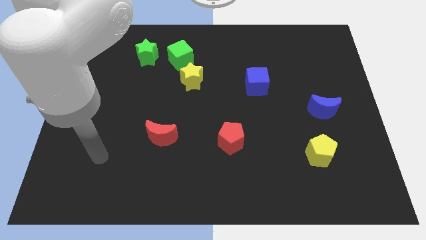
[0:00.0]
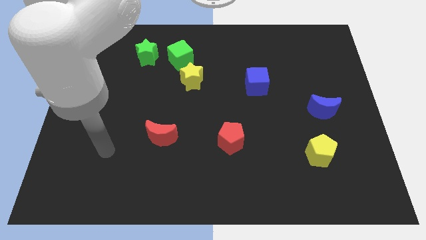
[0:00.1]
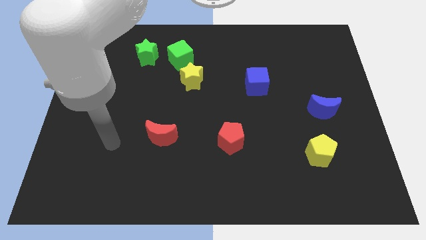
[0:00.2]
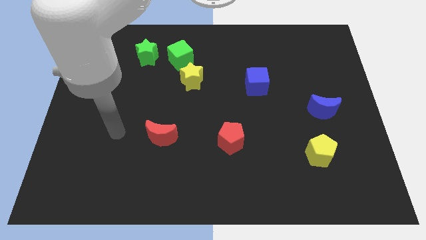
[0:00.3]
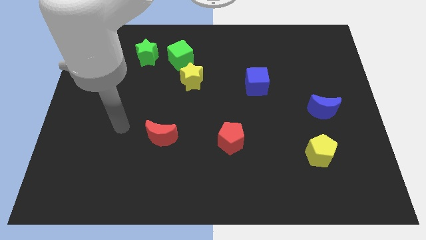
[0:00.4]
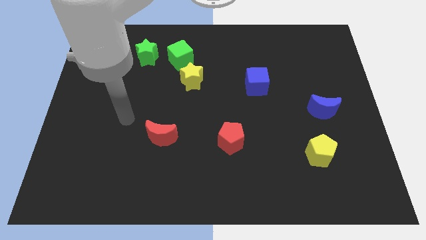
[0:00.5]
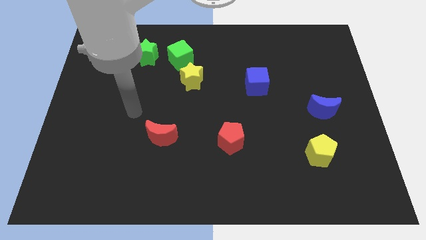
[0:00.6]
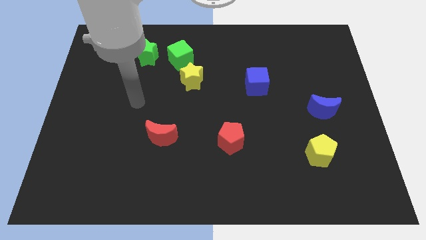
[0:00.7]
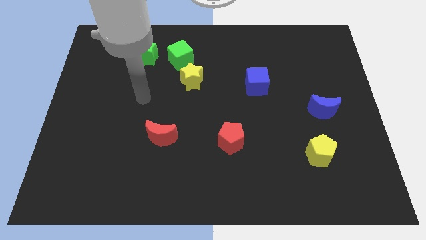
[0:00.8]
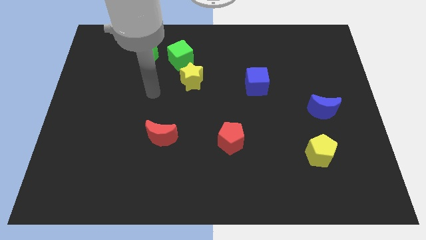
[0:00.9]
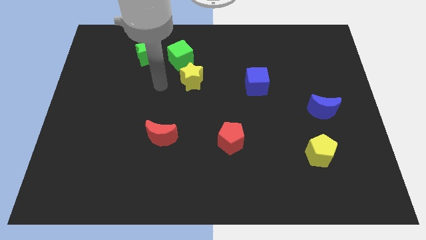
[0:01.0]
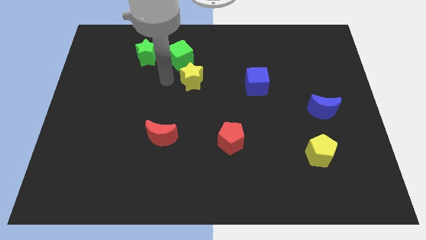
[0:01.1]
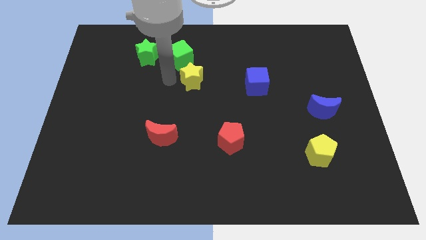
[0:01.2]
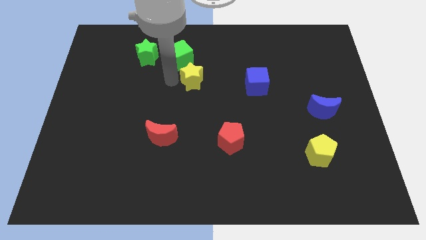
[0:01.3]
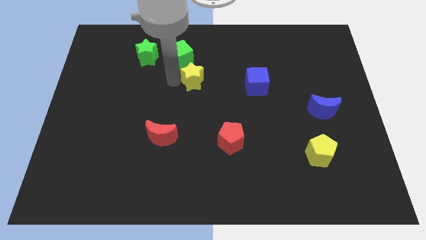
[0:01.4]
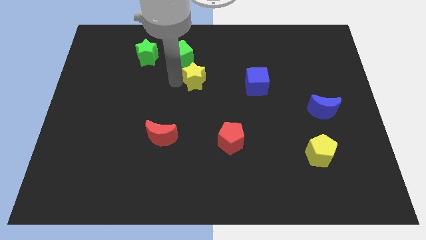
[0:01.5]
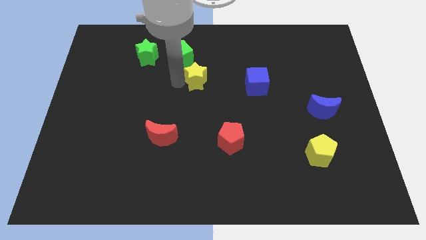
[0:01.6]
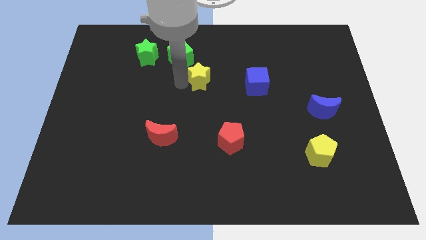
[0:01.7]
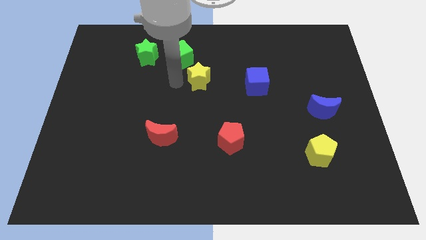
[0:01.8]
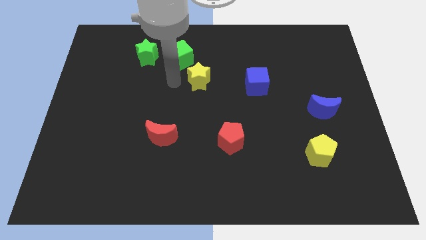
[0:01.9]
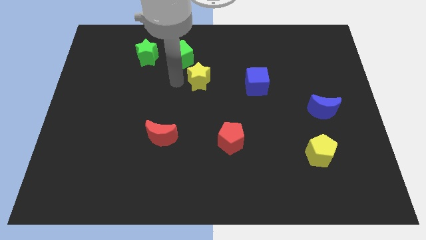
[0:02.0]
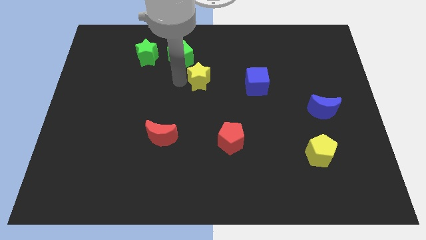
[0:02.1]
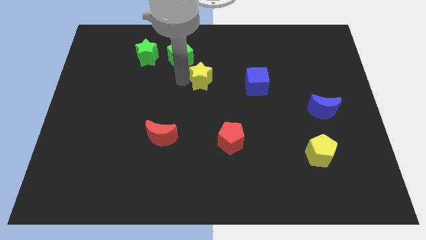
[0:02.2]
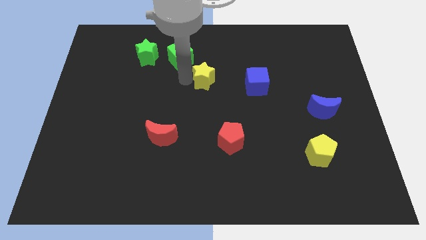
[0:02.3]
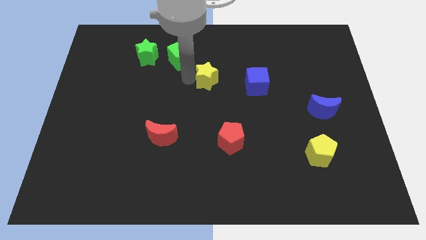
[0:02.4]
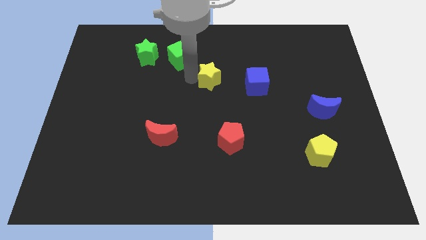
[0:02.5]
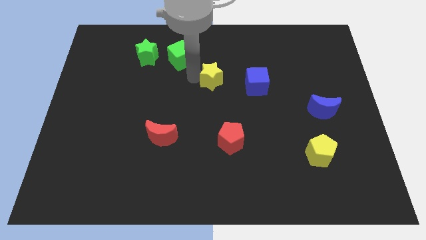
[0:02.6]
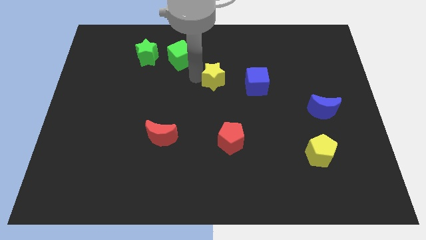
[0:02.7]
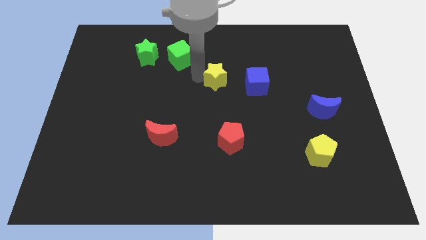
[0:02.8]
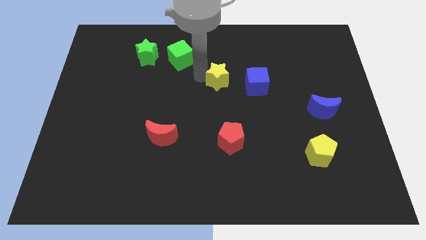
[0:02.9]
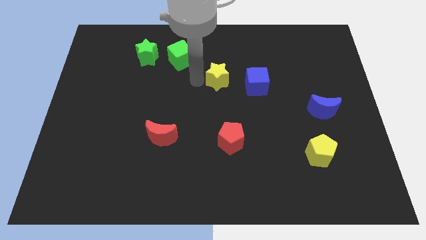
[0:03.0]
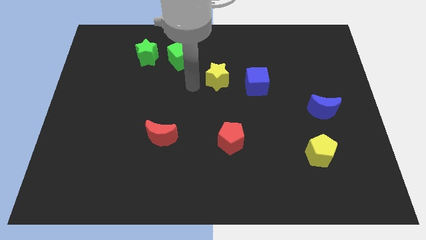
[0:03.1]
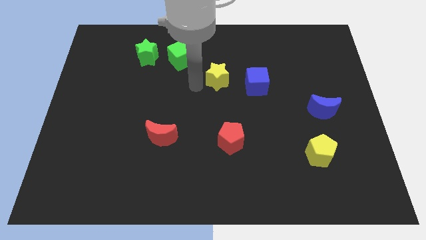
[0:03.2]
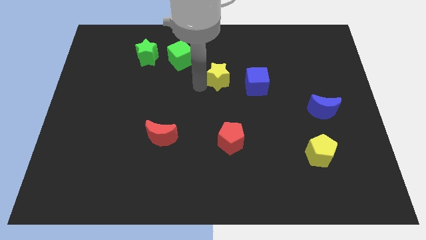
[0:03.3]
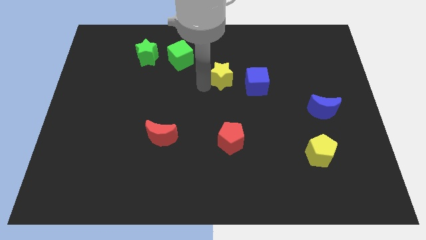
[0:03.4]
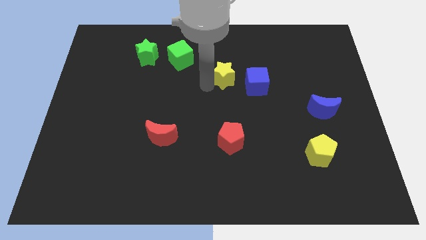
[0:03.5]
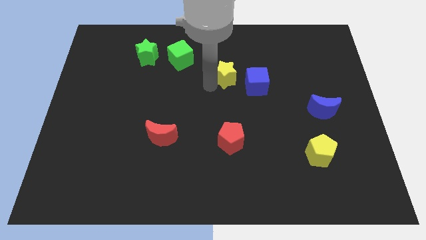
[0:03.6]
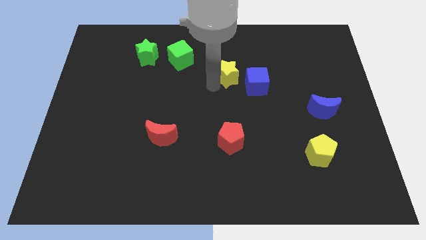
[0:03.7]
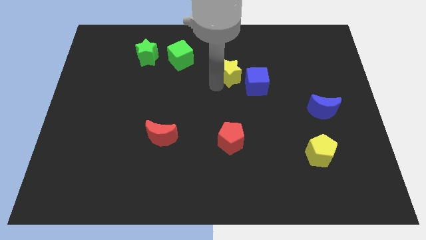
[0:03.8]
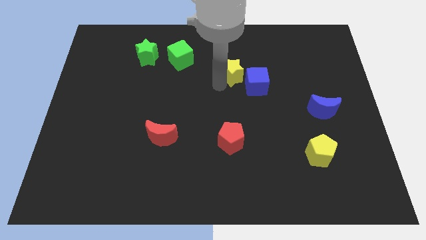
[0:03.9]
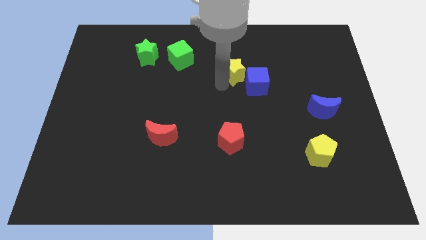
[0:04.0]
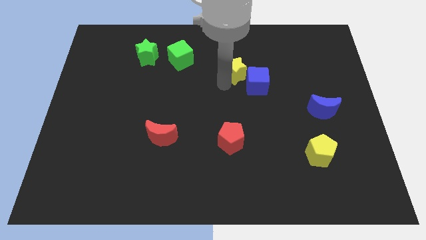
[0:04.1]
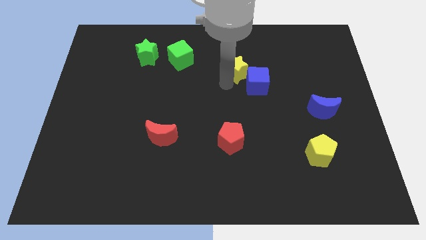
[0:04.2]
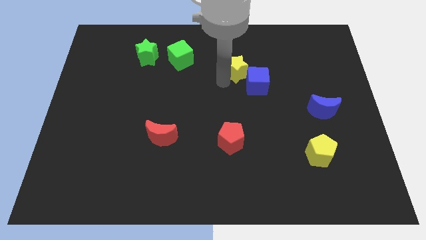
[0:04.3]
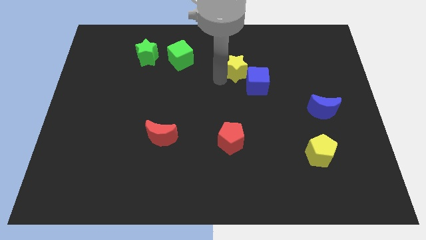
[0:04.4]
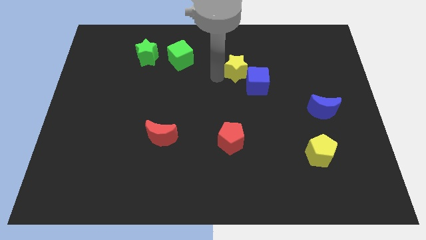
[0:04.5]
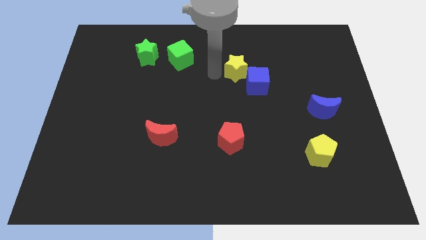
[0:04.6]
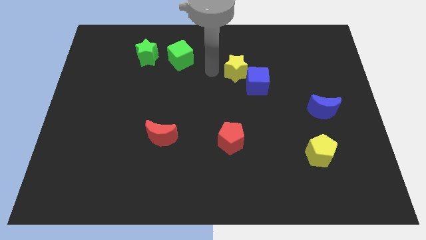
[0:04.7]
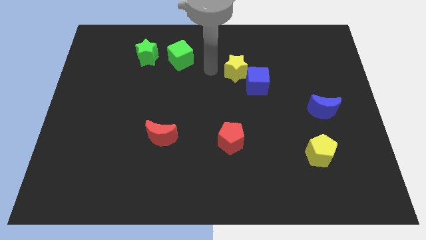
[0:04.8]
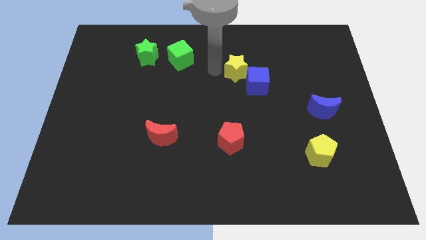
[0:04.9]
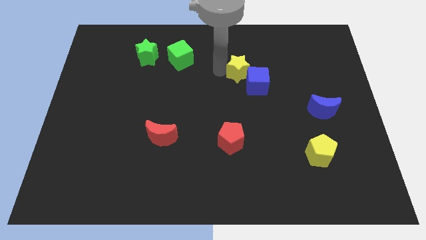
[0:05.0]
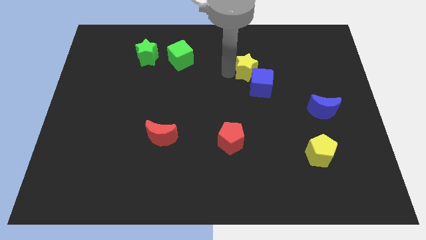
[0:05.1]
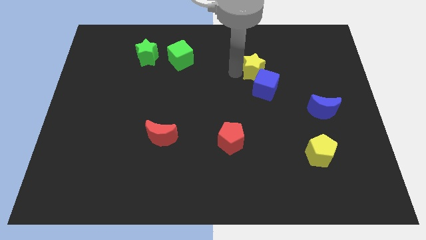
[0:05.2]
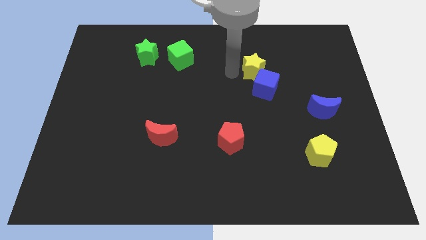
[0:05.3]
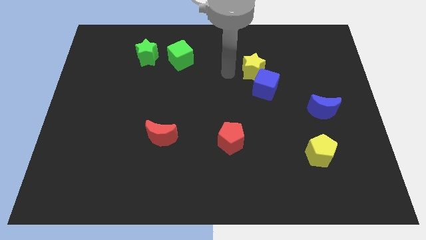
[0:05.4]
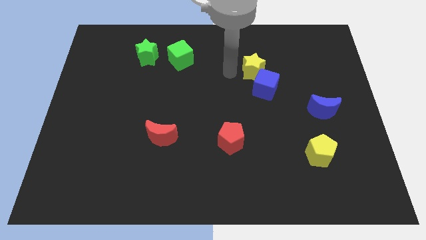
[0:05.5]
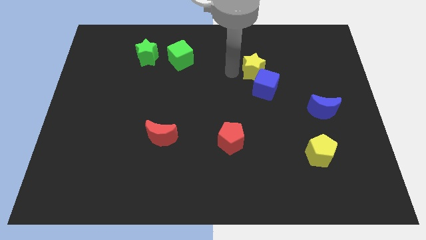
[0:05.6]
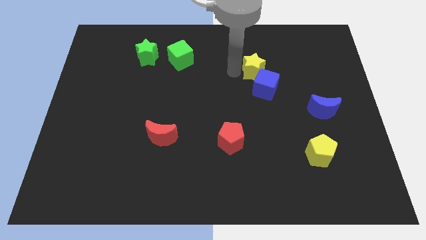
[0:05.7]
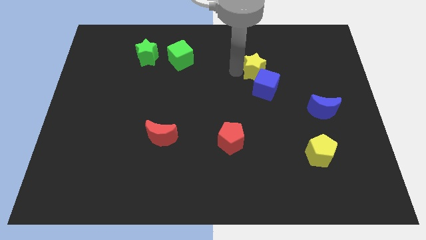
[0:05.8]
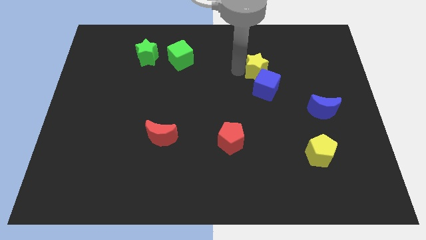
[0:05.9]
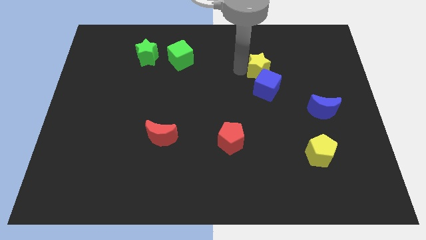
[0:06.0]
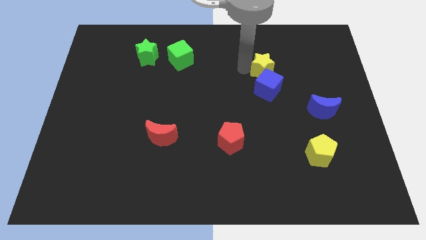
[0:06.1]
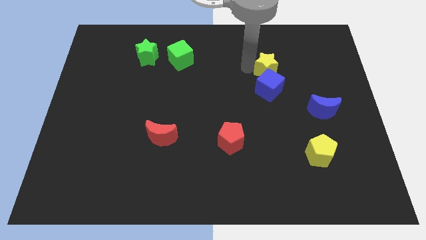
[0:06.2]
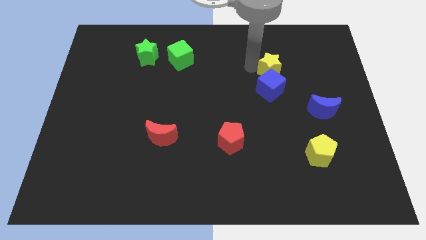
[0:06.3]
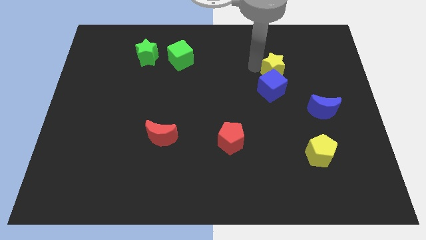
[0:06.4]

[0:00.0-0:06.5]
move the yellow star to the right

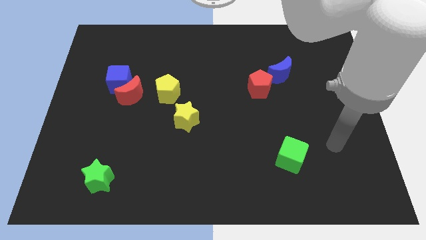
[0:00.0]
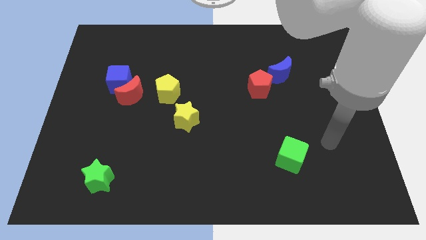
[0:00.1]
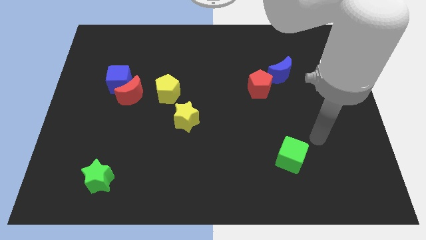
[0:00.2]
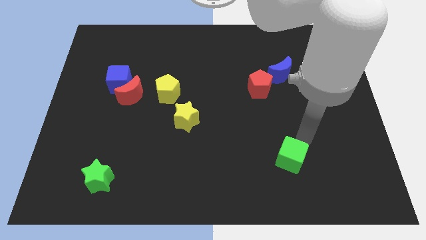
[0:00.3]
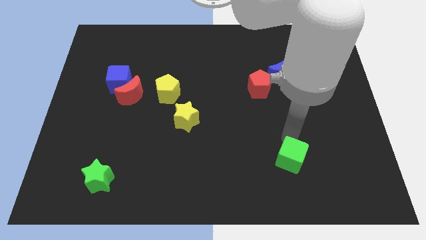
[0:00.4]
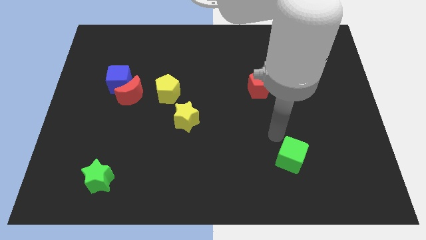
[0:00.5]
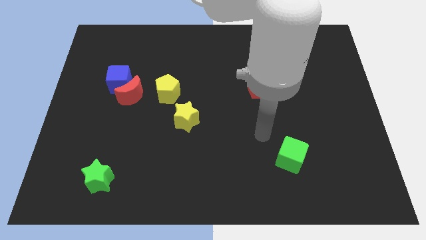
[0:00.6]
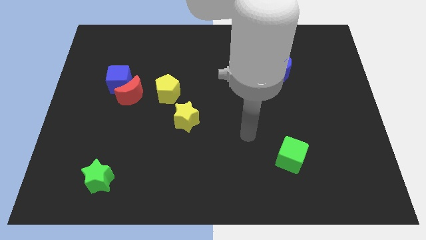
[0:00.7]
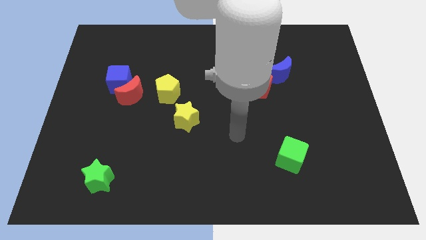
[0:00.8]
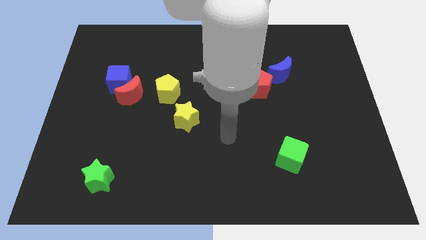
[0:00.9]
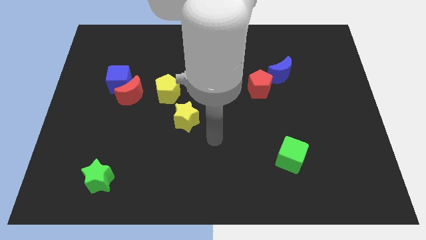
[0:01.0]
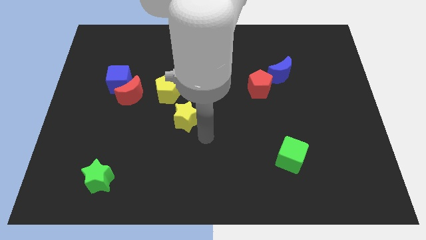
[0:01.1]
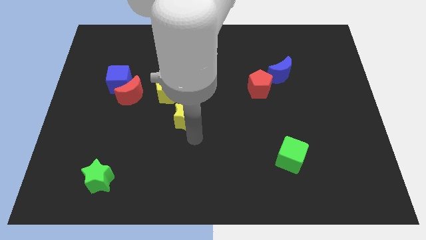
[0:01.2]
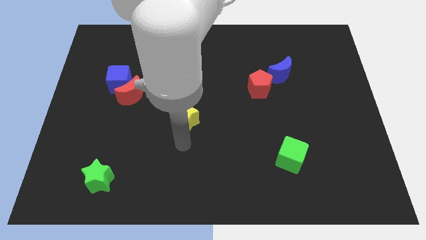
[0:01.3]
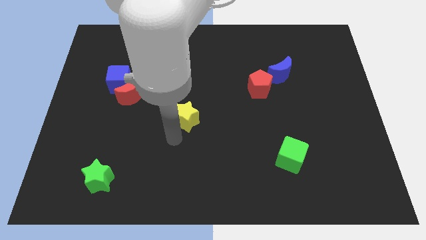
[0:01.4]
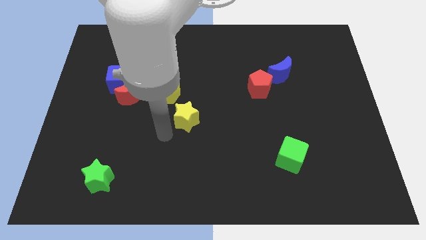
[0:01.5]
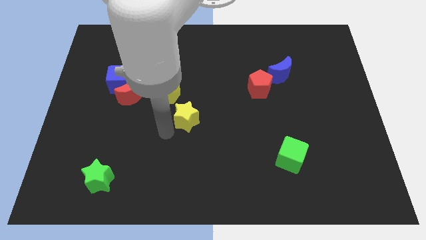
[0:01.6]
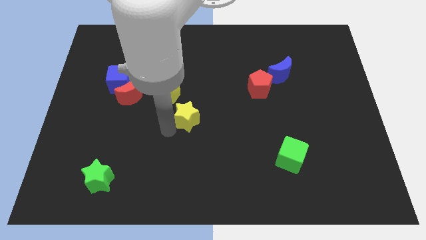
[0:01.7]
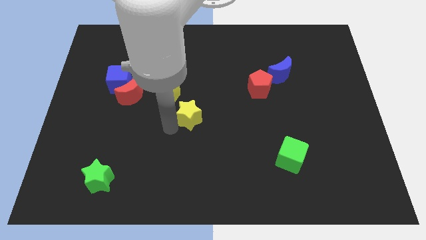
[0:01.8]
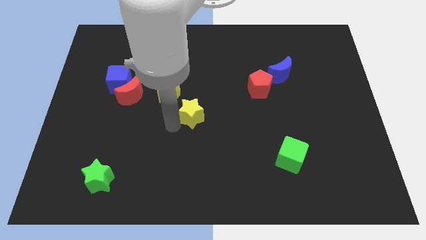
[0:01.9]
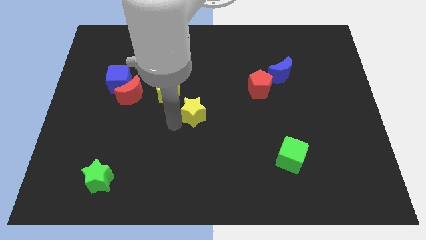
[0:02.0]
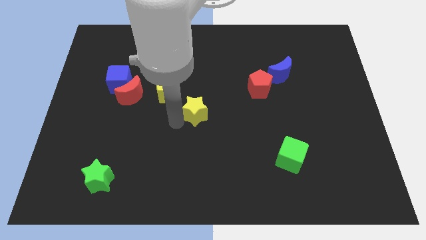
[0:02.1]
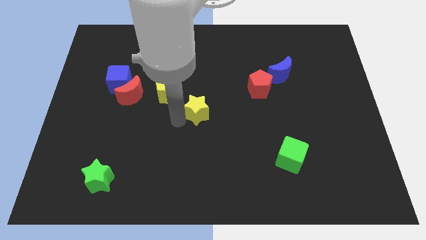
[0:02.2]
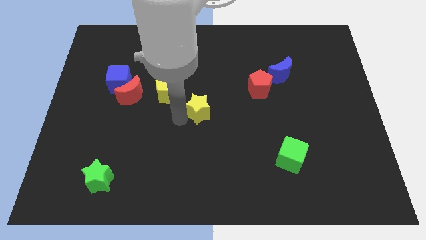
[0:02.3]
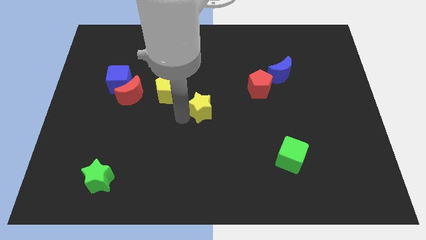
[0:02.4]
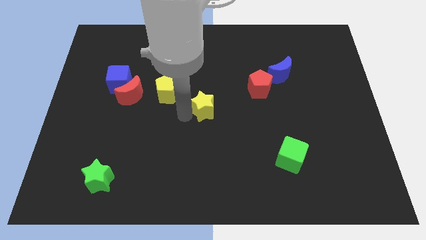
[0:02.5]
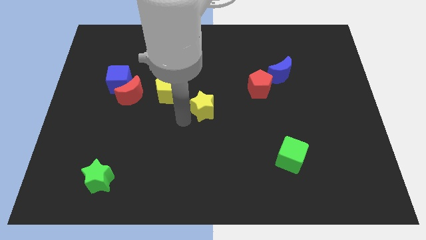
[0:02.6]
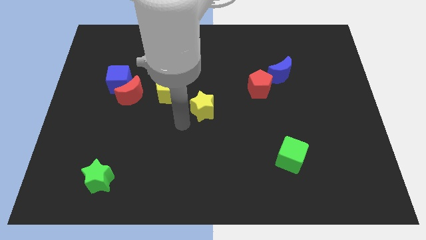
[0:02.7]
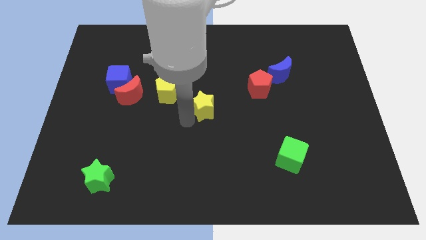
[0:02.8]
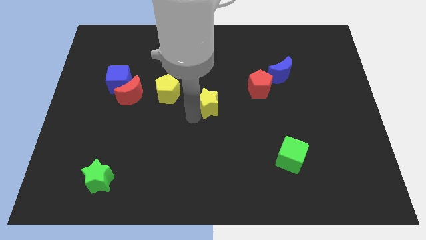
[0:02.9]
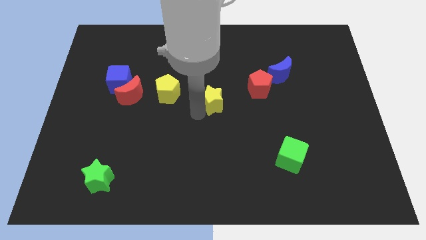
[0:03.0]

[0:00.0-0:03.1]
move the yellow star up and right slightly
